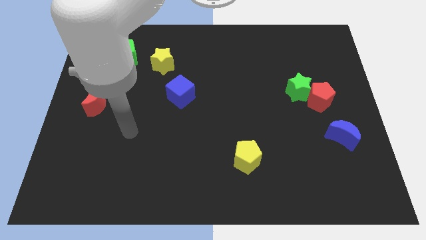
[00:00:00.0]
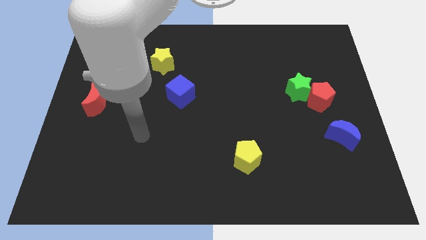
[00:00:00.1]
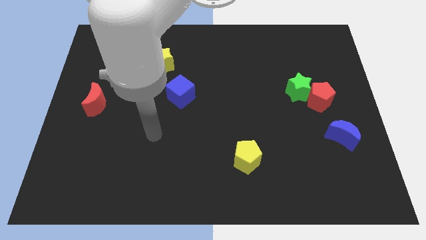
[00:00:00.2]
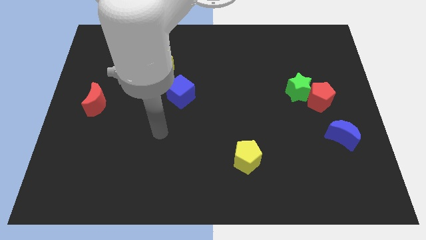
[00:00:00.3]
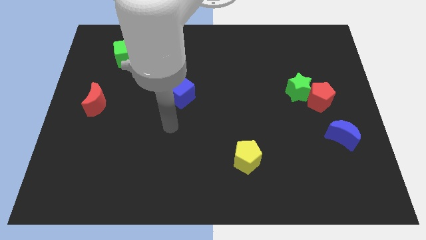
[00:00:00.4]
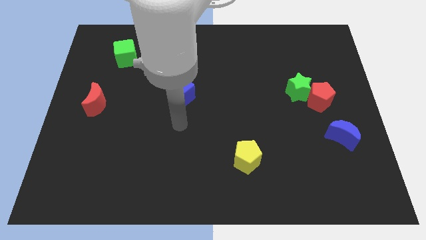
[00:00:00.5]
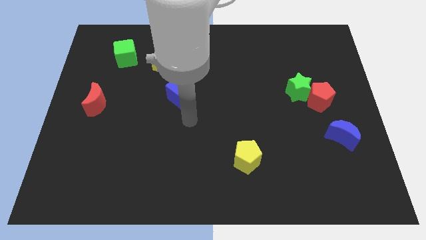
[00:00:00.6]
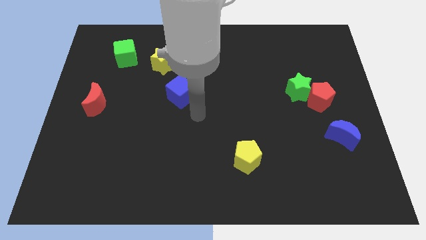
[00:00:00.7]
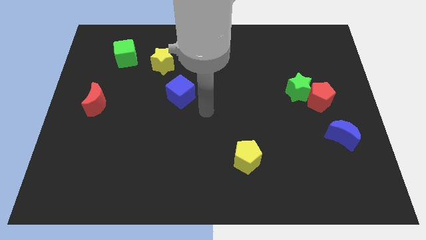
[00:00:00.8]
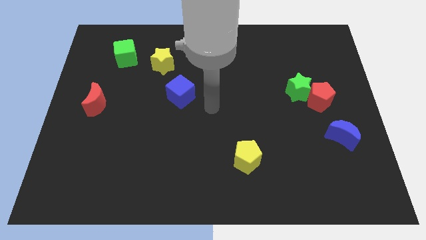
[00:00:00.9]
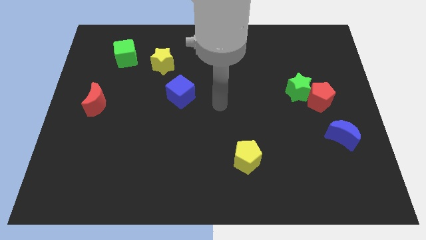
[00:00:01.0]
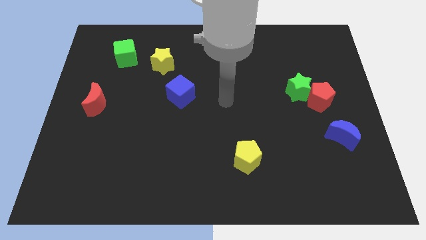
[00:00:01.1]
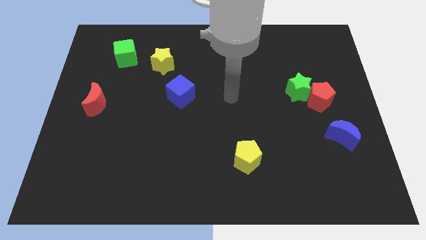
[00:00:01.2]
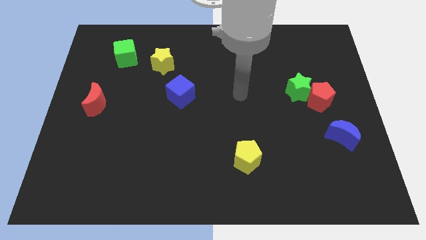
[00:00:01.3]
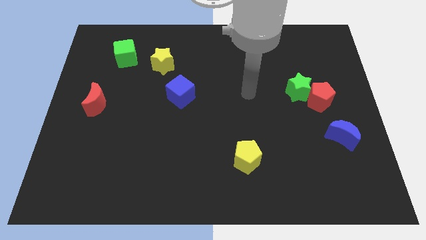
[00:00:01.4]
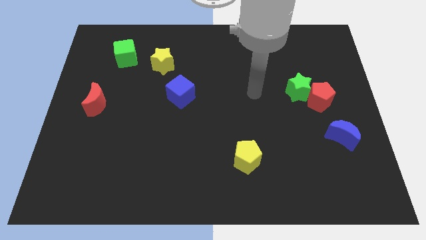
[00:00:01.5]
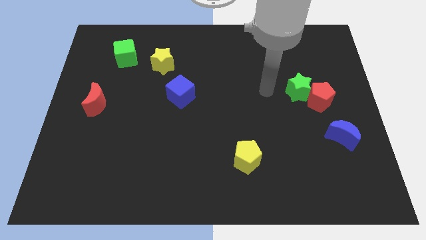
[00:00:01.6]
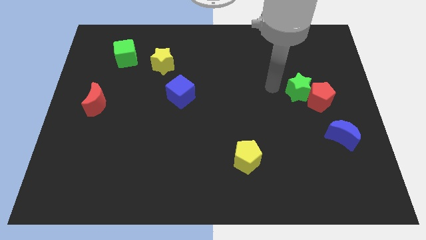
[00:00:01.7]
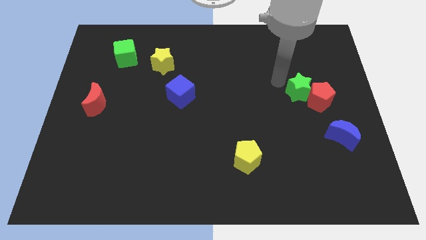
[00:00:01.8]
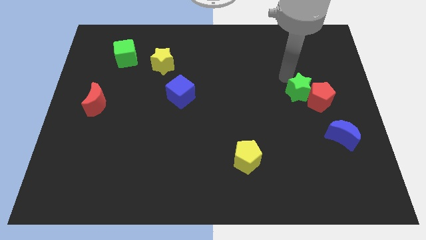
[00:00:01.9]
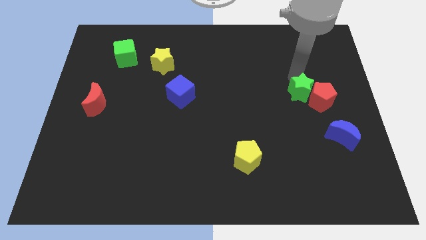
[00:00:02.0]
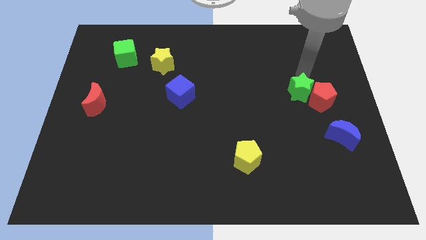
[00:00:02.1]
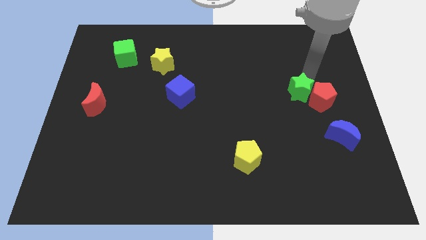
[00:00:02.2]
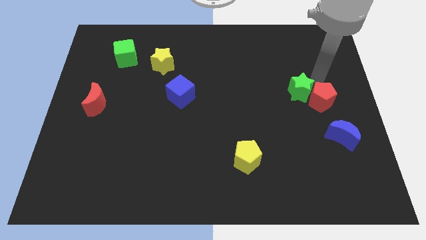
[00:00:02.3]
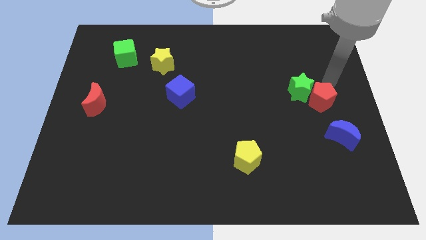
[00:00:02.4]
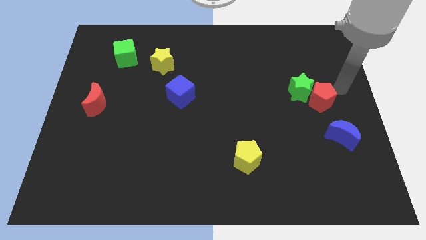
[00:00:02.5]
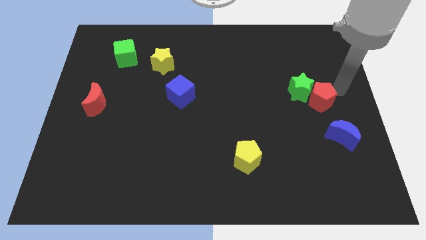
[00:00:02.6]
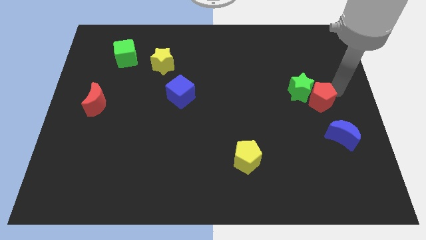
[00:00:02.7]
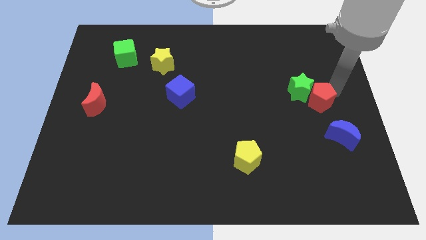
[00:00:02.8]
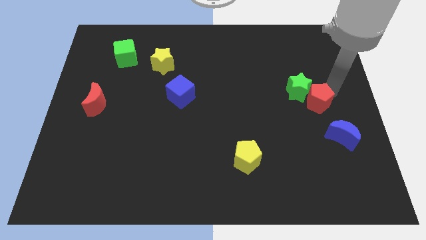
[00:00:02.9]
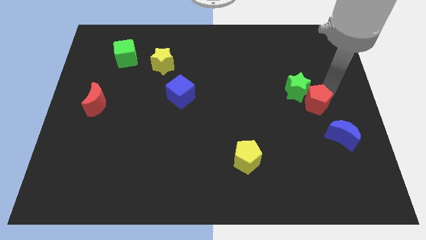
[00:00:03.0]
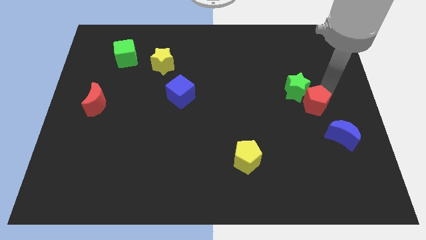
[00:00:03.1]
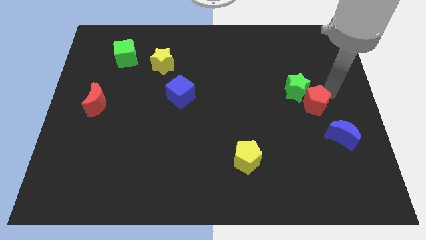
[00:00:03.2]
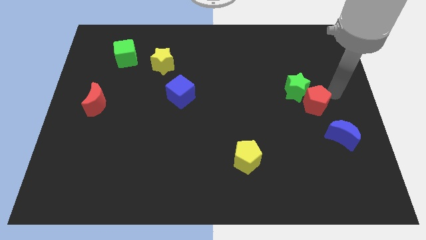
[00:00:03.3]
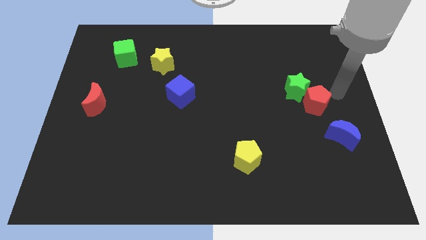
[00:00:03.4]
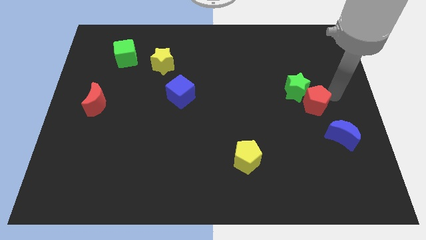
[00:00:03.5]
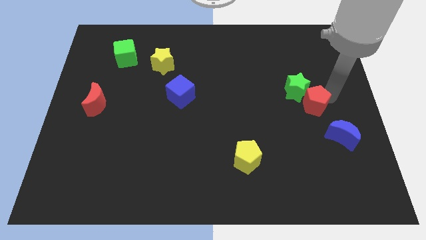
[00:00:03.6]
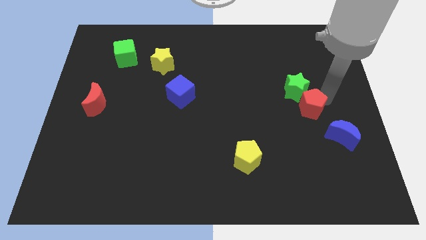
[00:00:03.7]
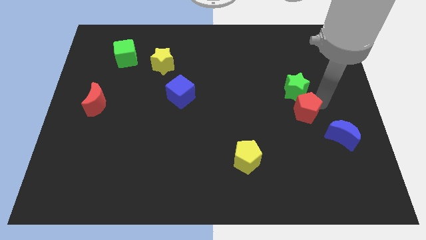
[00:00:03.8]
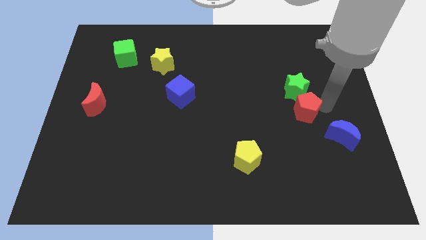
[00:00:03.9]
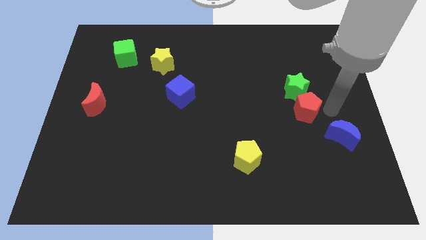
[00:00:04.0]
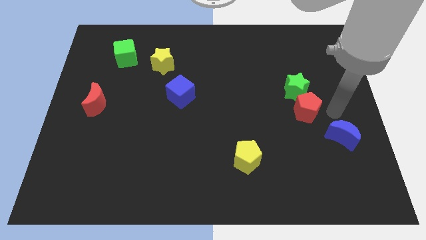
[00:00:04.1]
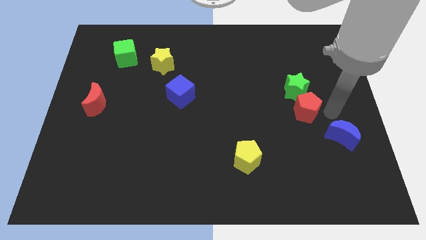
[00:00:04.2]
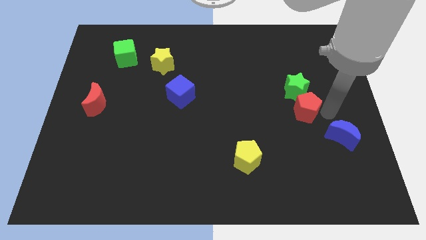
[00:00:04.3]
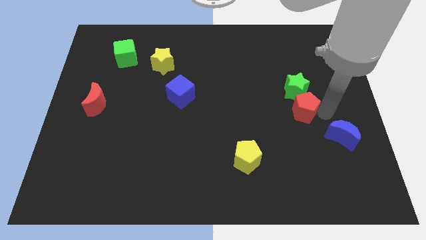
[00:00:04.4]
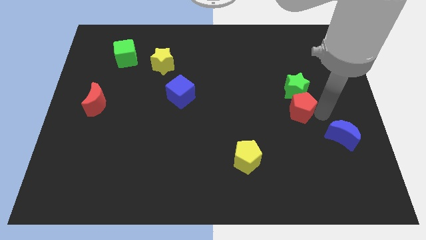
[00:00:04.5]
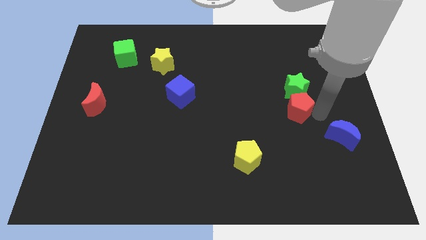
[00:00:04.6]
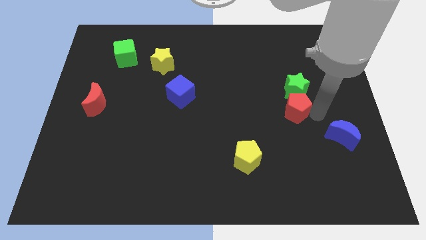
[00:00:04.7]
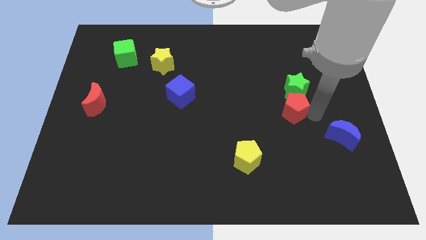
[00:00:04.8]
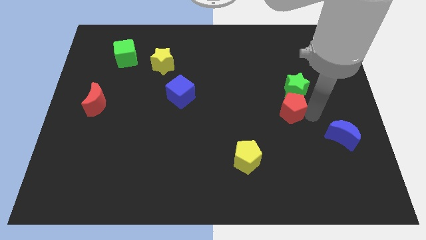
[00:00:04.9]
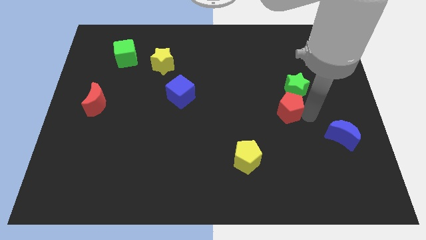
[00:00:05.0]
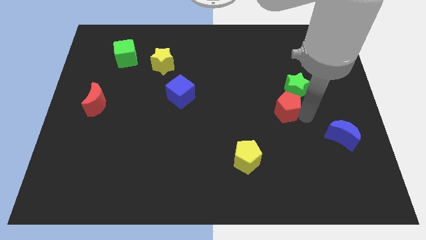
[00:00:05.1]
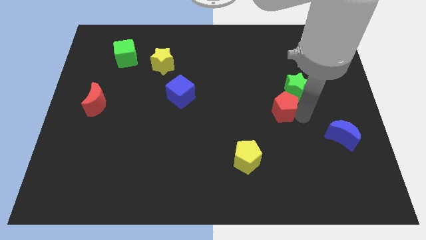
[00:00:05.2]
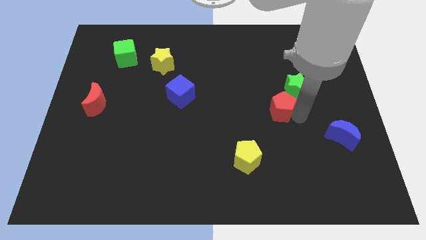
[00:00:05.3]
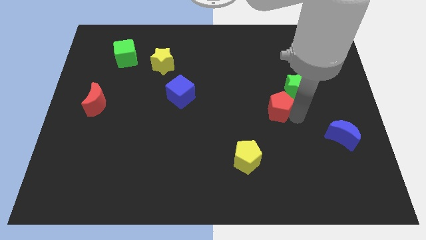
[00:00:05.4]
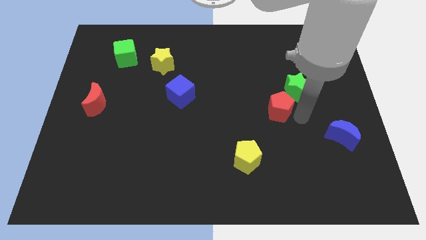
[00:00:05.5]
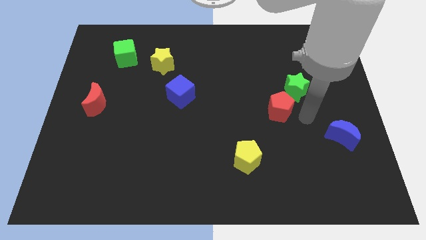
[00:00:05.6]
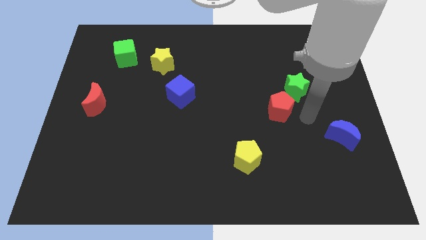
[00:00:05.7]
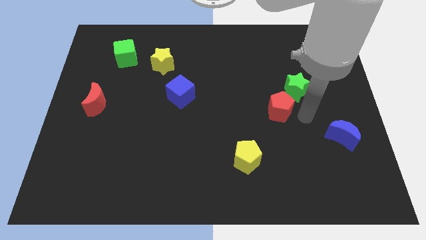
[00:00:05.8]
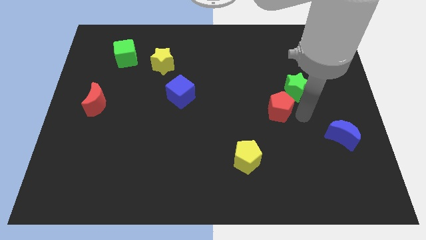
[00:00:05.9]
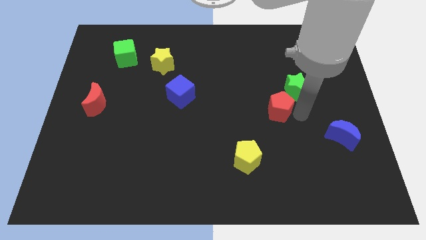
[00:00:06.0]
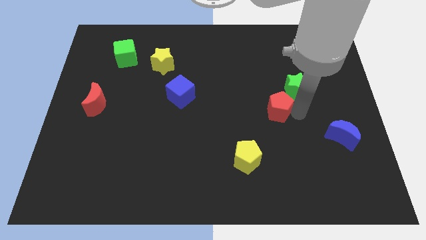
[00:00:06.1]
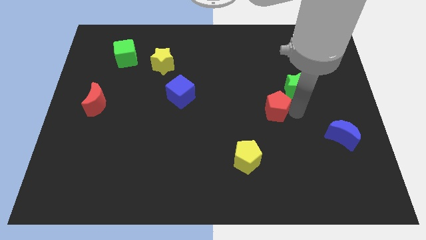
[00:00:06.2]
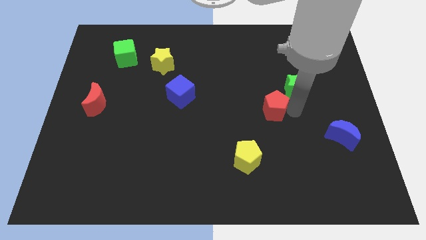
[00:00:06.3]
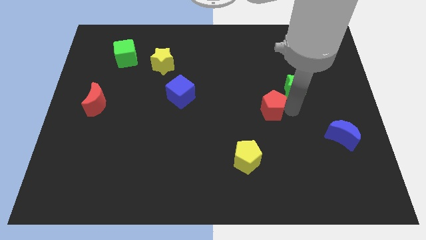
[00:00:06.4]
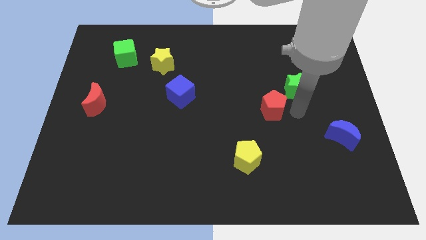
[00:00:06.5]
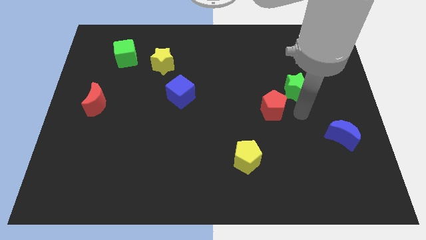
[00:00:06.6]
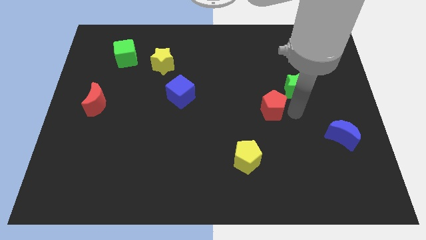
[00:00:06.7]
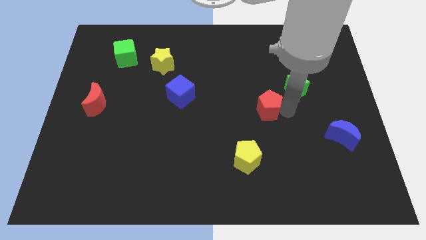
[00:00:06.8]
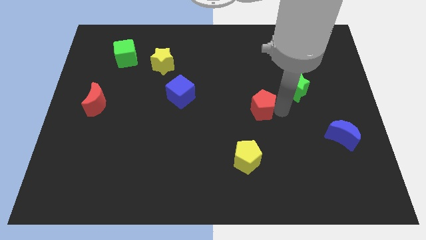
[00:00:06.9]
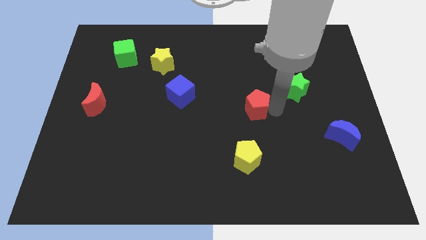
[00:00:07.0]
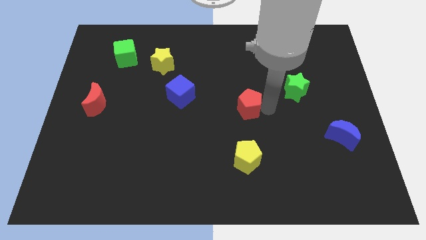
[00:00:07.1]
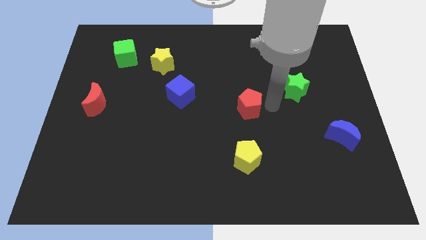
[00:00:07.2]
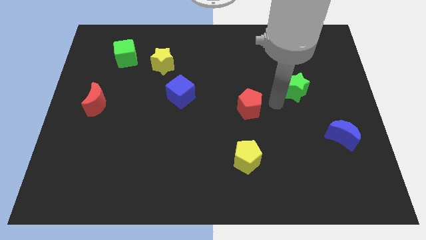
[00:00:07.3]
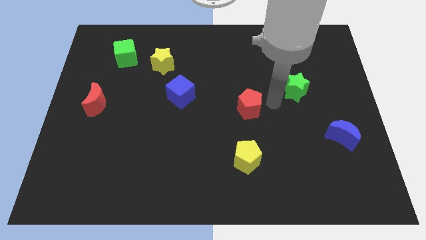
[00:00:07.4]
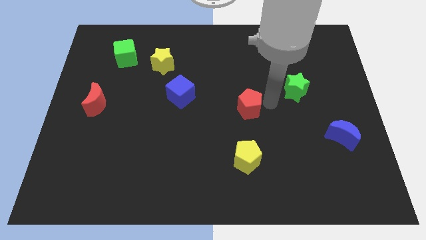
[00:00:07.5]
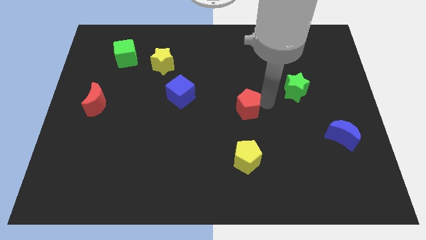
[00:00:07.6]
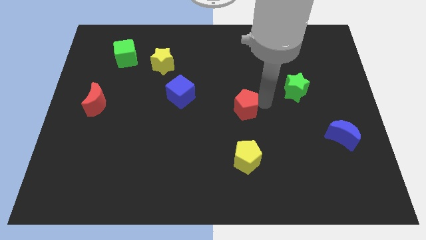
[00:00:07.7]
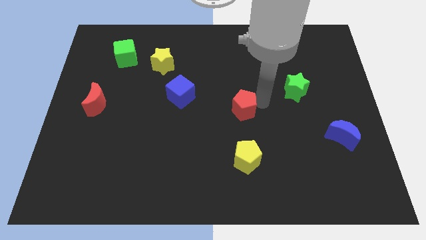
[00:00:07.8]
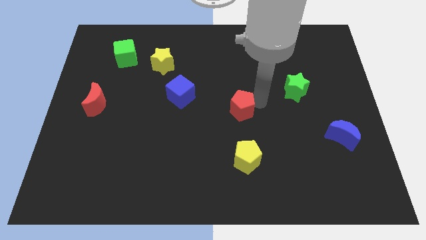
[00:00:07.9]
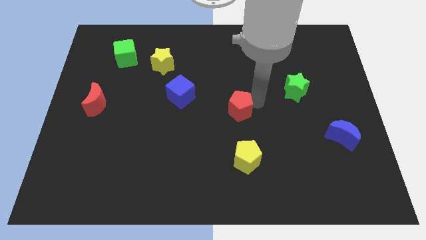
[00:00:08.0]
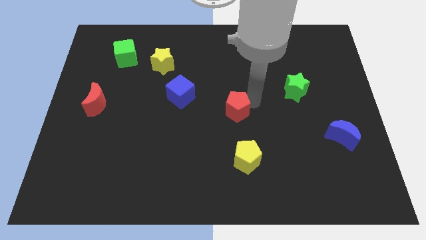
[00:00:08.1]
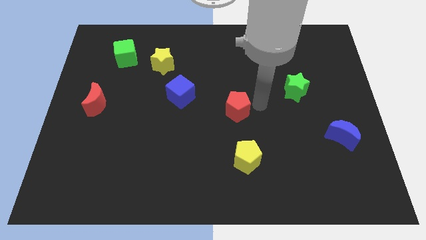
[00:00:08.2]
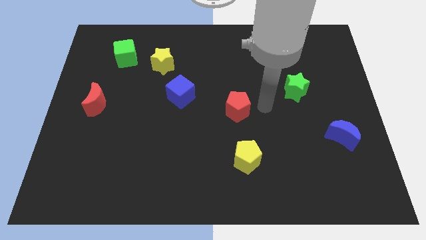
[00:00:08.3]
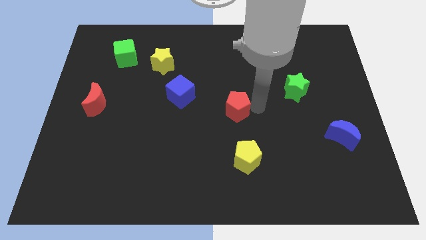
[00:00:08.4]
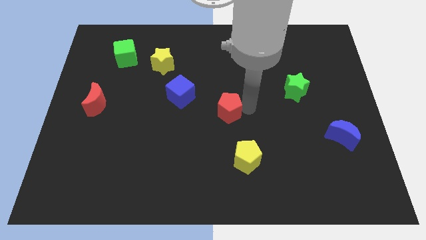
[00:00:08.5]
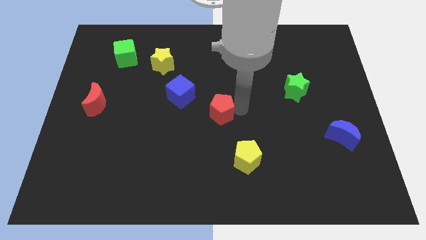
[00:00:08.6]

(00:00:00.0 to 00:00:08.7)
move the red pentagon to the bottom right side of the blue cube
